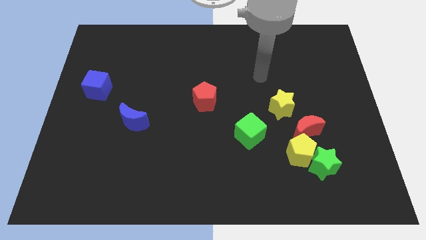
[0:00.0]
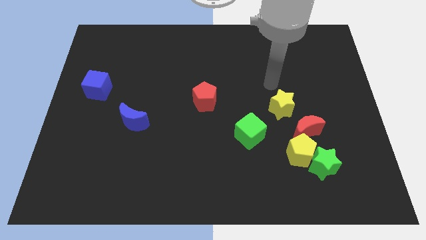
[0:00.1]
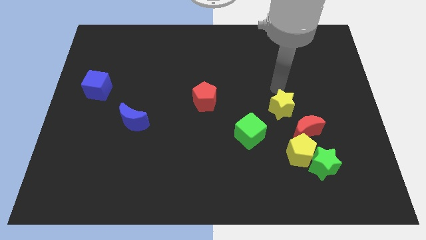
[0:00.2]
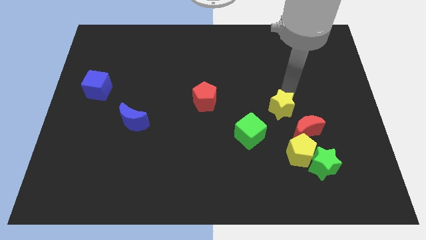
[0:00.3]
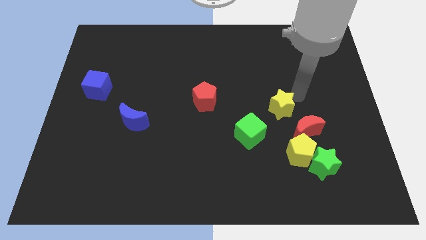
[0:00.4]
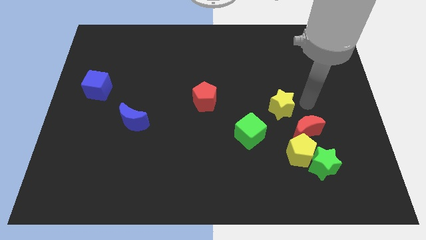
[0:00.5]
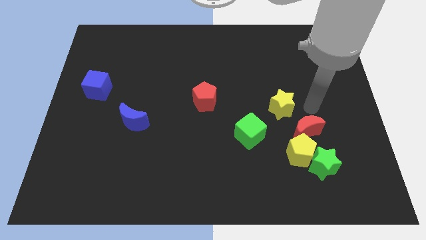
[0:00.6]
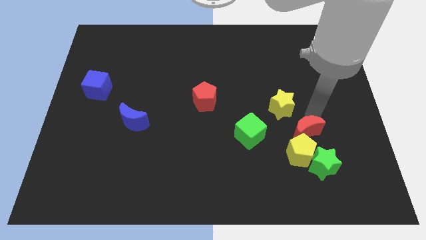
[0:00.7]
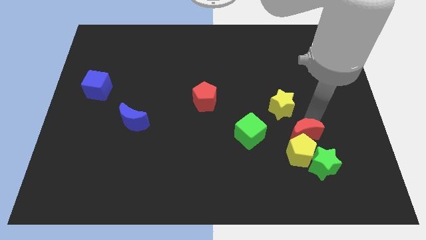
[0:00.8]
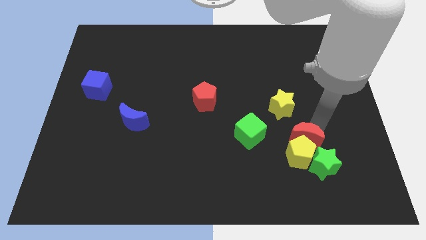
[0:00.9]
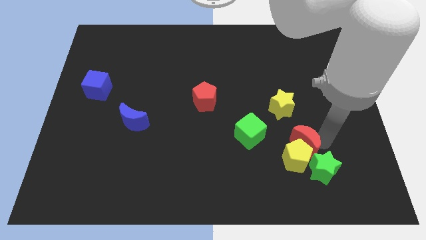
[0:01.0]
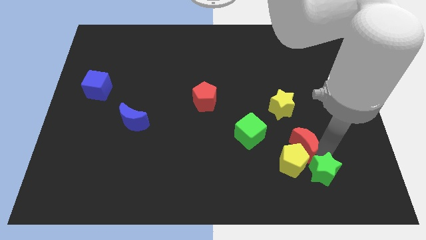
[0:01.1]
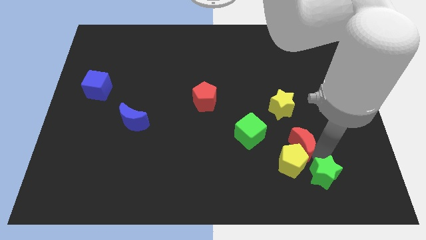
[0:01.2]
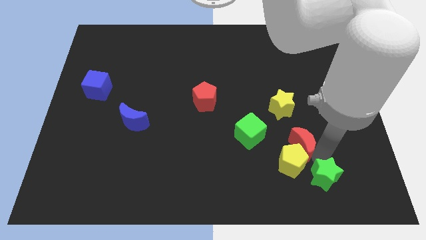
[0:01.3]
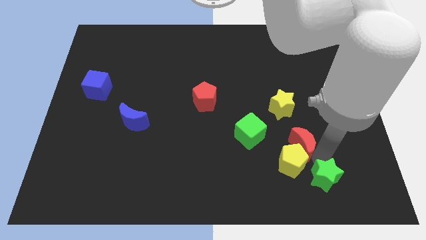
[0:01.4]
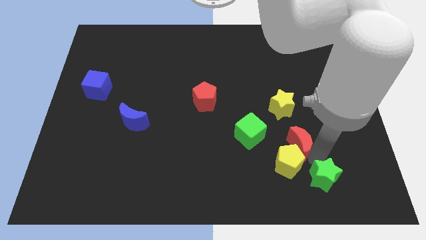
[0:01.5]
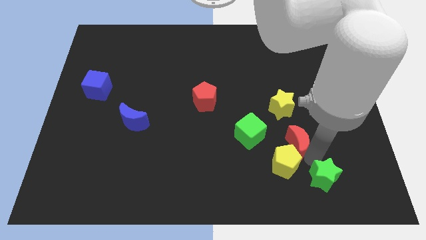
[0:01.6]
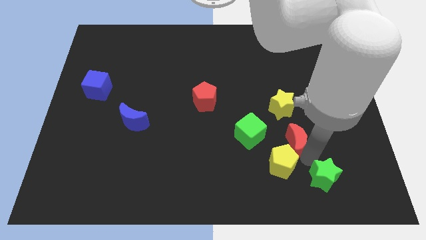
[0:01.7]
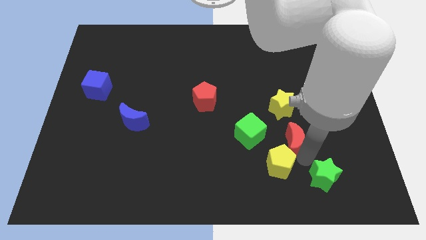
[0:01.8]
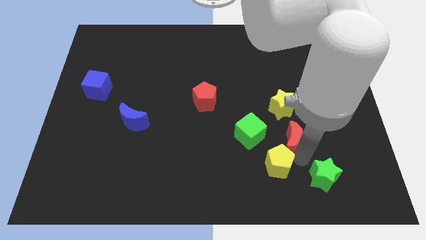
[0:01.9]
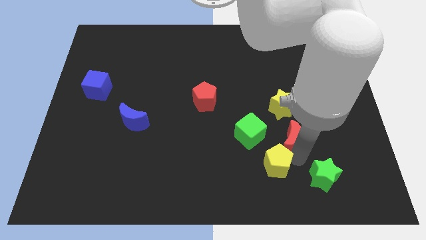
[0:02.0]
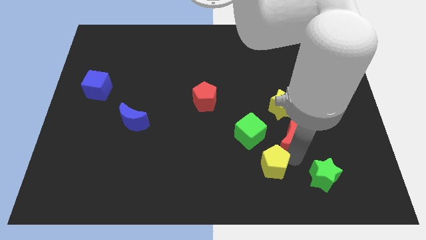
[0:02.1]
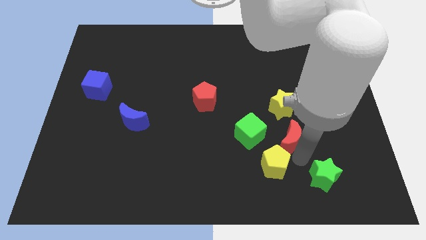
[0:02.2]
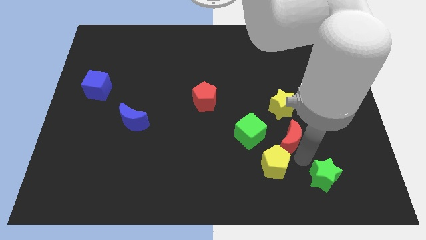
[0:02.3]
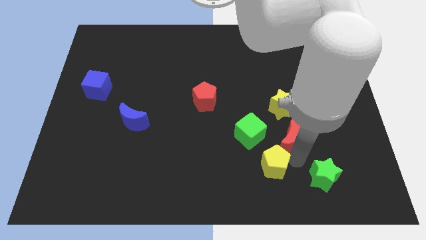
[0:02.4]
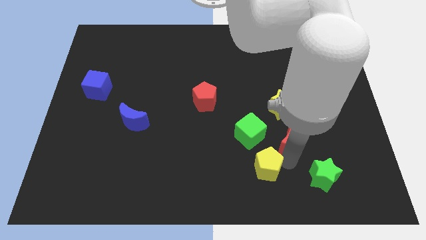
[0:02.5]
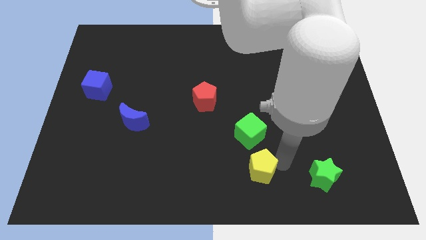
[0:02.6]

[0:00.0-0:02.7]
separate the yellow pentagon from the green star and red moon

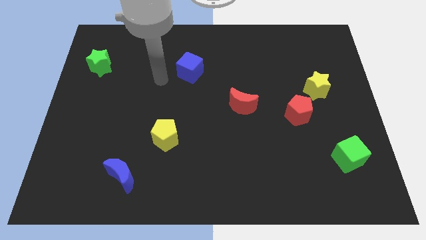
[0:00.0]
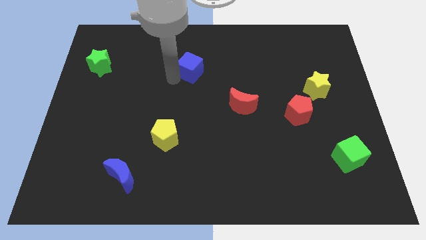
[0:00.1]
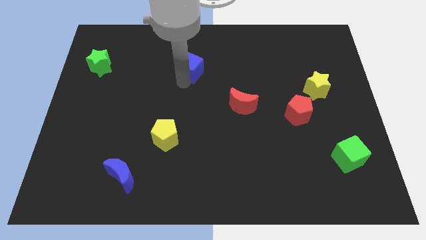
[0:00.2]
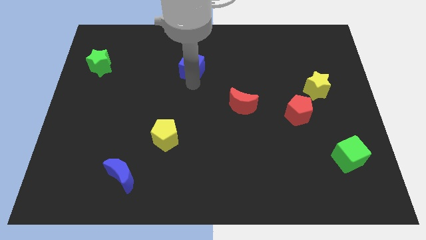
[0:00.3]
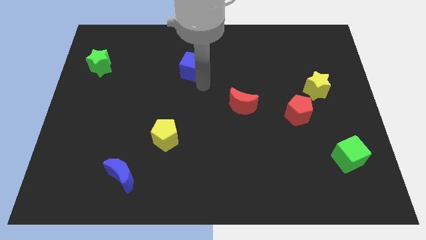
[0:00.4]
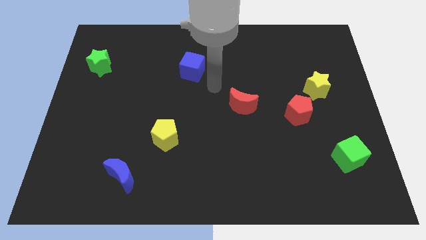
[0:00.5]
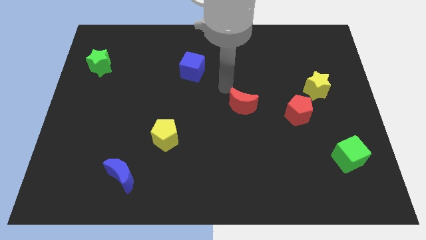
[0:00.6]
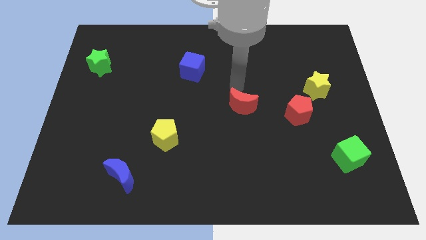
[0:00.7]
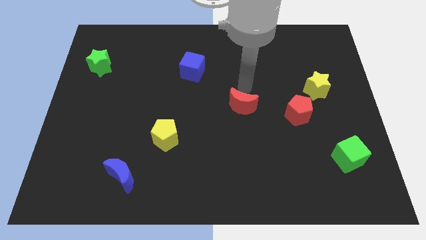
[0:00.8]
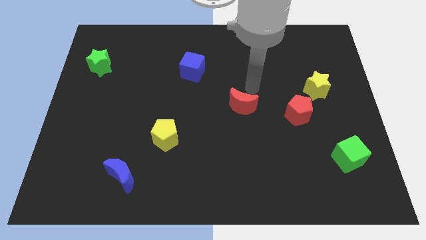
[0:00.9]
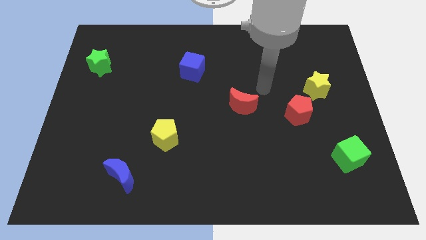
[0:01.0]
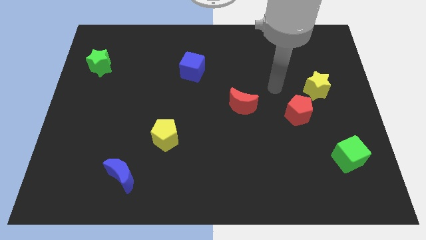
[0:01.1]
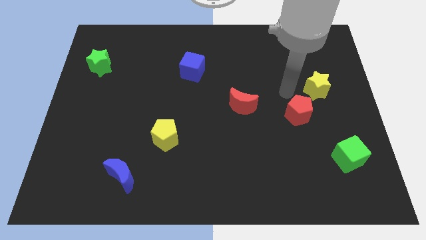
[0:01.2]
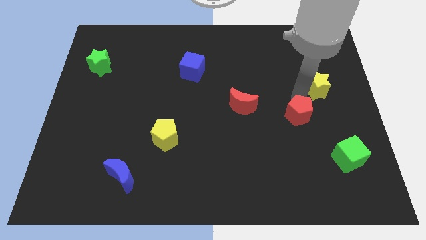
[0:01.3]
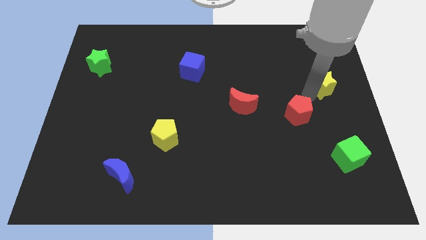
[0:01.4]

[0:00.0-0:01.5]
pull the red pentagon apart from the yellow star

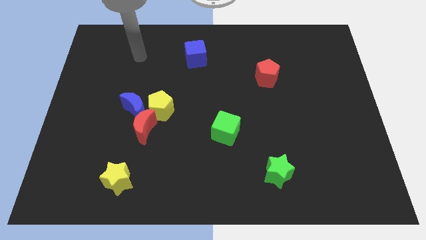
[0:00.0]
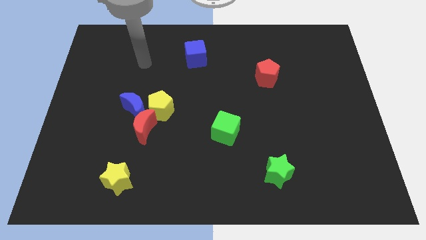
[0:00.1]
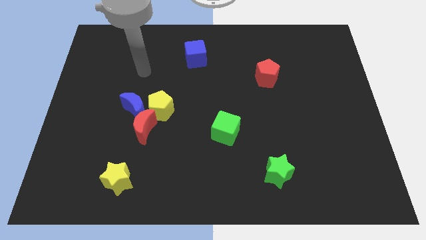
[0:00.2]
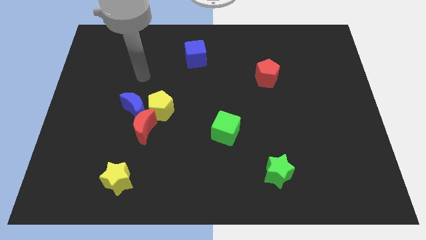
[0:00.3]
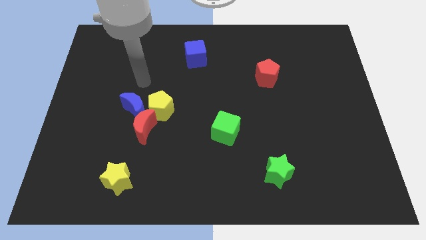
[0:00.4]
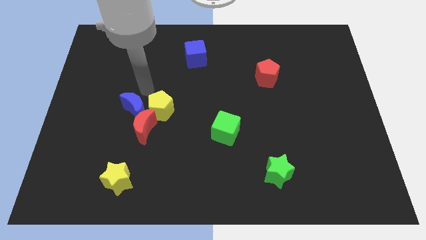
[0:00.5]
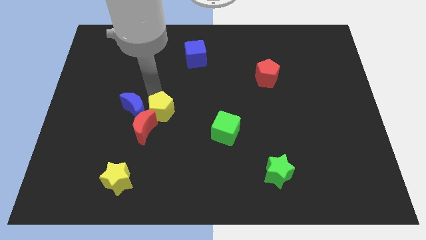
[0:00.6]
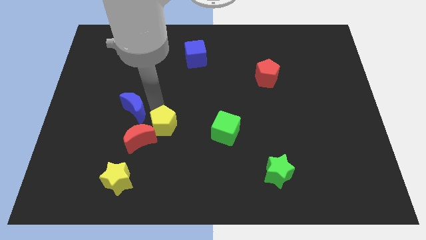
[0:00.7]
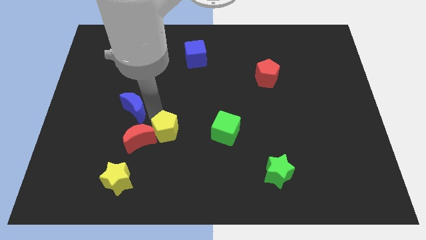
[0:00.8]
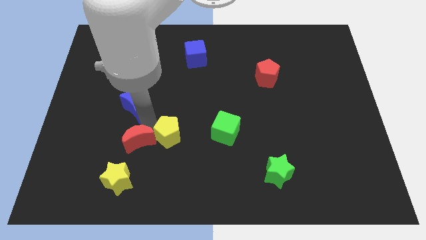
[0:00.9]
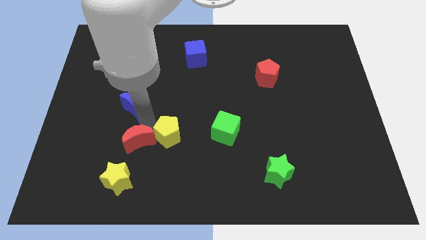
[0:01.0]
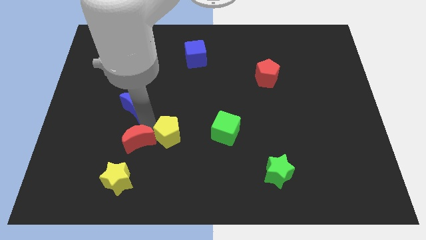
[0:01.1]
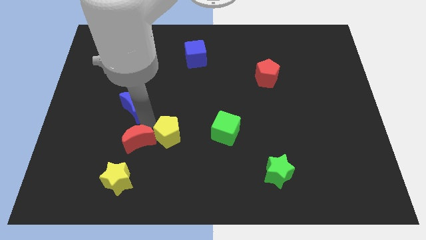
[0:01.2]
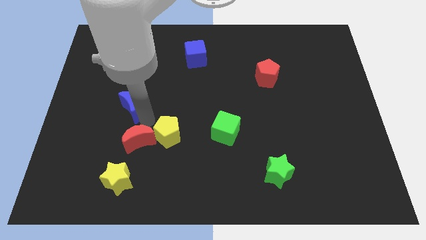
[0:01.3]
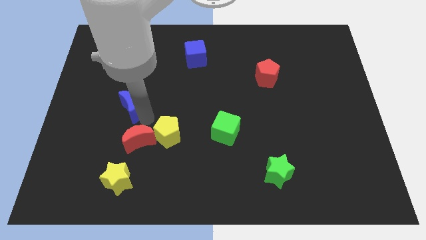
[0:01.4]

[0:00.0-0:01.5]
move the blue moon away from the yellow pentagon and red moon

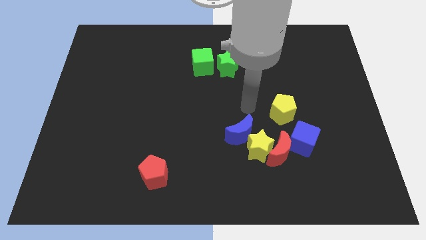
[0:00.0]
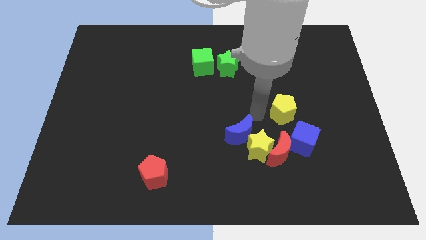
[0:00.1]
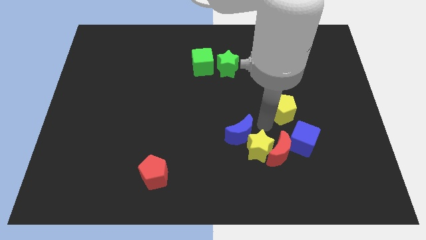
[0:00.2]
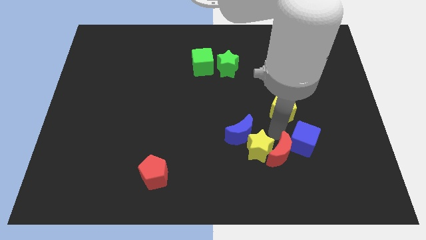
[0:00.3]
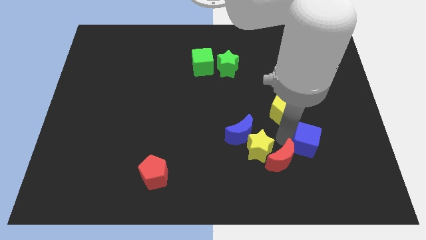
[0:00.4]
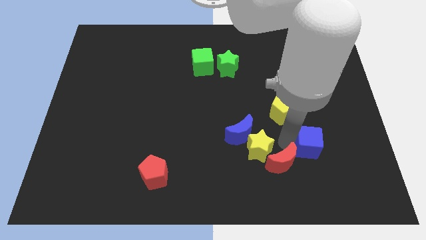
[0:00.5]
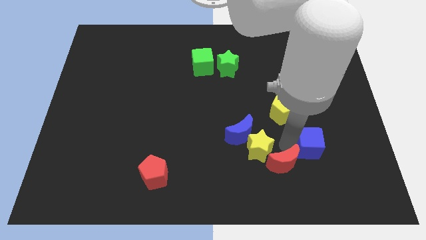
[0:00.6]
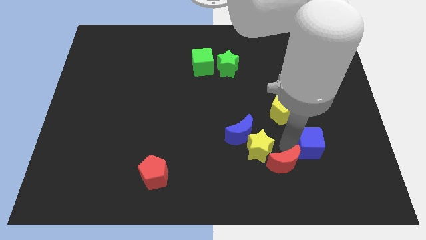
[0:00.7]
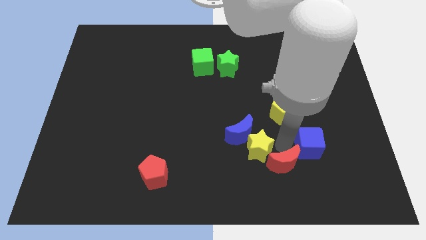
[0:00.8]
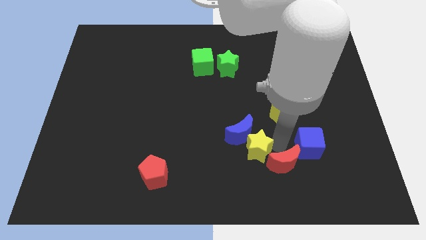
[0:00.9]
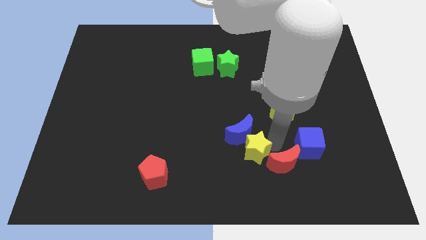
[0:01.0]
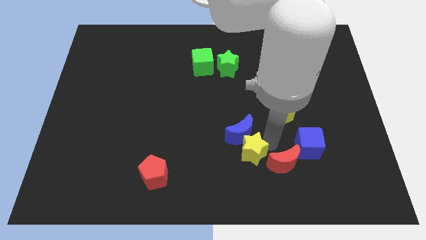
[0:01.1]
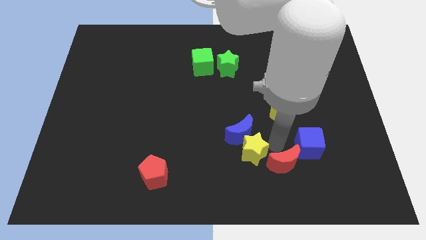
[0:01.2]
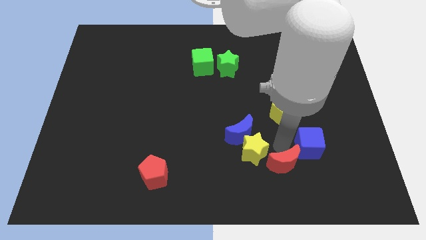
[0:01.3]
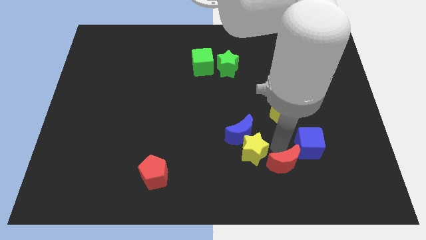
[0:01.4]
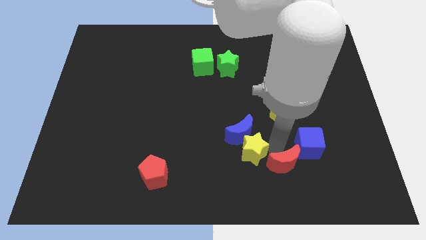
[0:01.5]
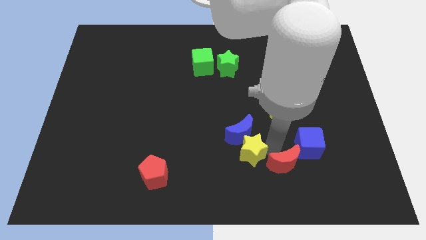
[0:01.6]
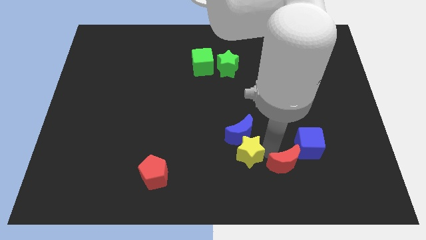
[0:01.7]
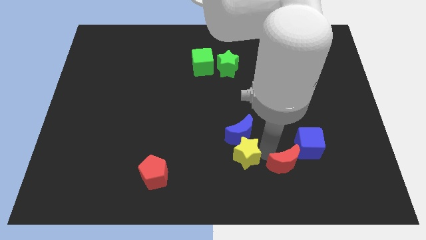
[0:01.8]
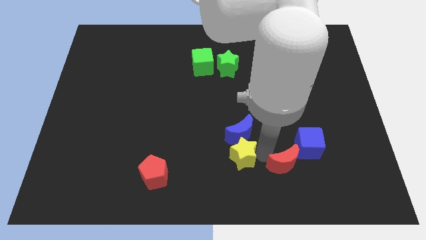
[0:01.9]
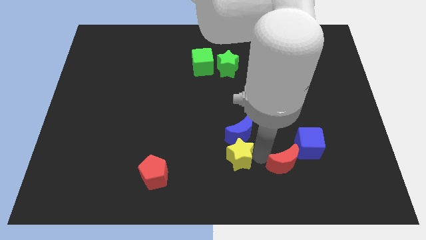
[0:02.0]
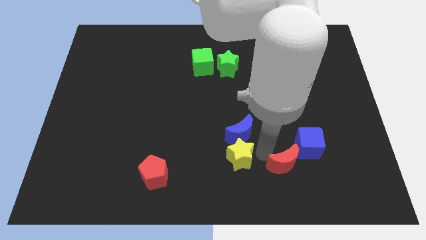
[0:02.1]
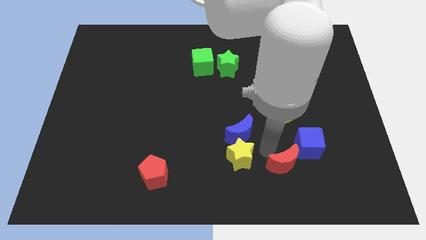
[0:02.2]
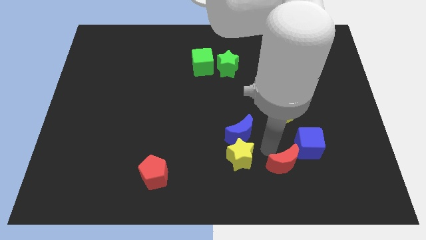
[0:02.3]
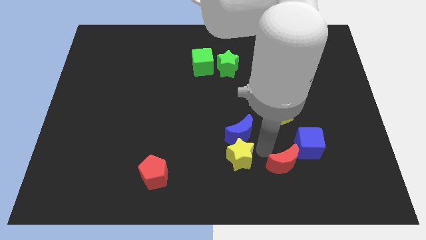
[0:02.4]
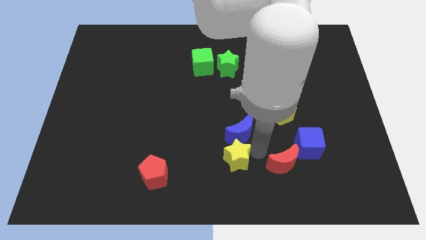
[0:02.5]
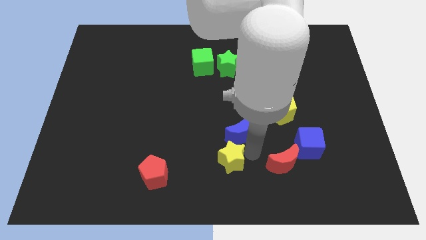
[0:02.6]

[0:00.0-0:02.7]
move the yellow star away from the group

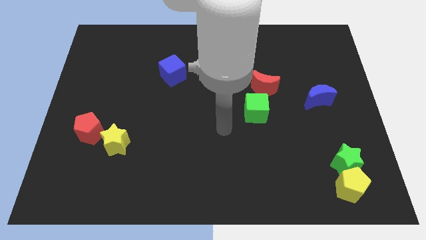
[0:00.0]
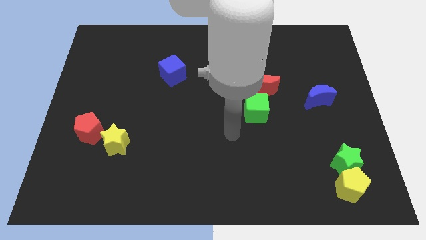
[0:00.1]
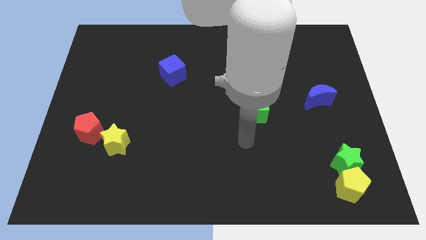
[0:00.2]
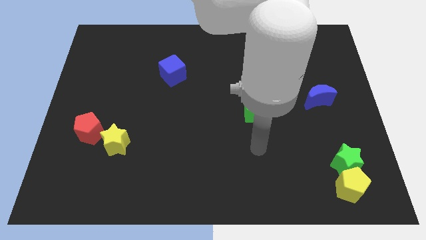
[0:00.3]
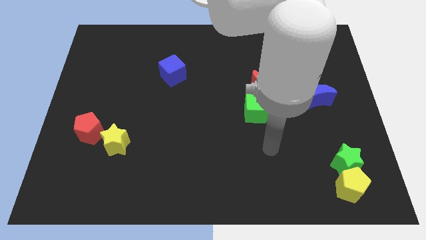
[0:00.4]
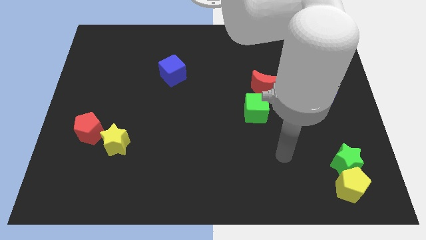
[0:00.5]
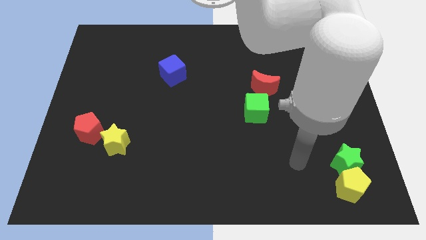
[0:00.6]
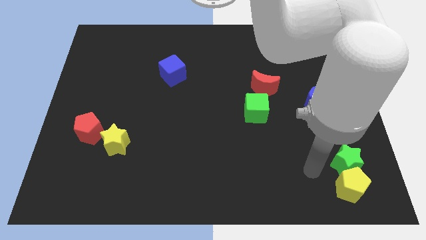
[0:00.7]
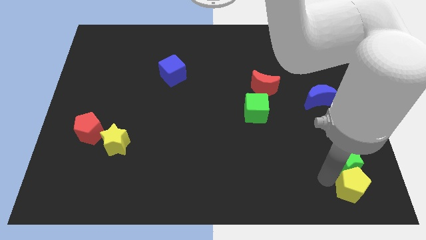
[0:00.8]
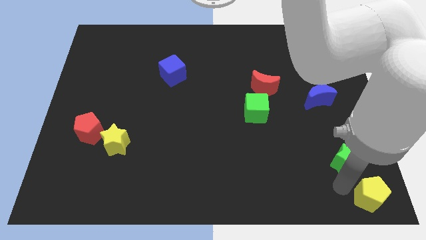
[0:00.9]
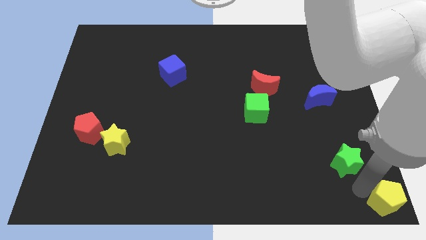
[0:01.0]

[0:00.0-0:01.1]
pull the green star apart from the yellow pentagon
